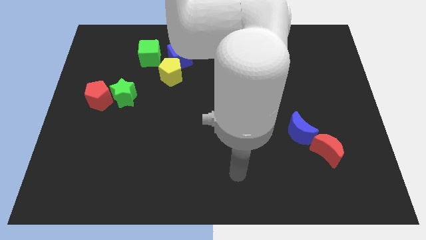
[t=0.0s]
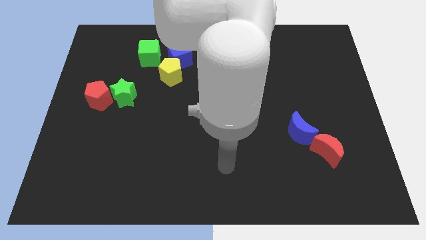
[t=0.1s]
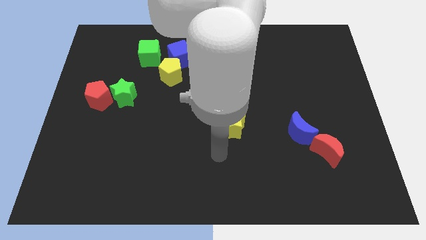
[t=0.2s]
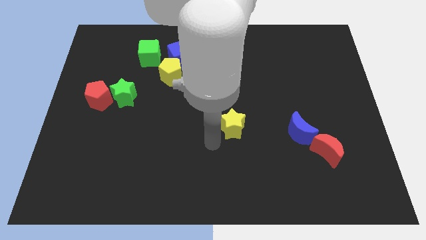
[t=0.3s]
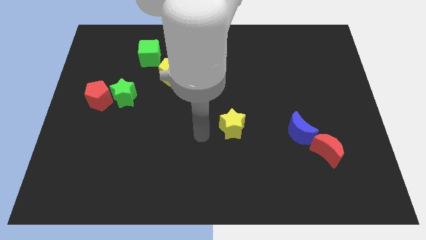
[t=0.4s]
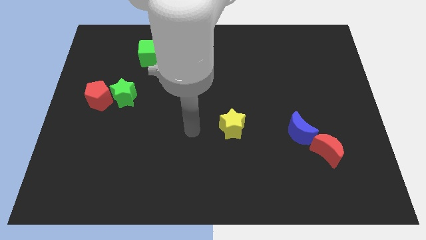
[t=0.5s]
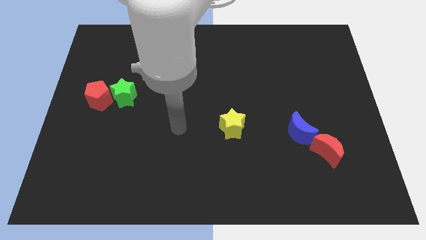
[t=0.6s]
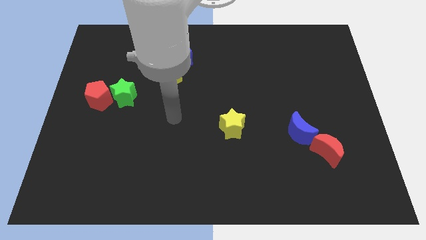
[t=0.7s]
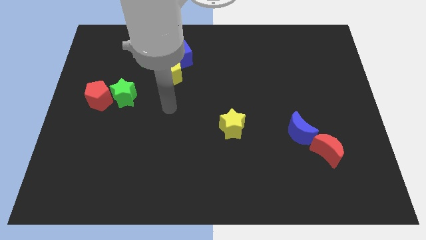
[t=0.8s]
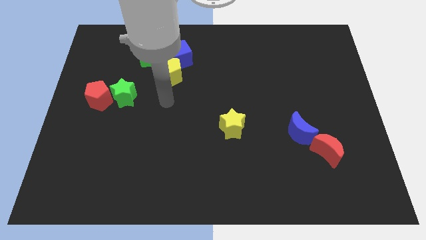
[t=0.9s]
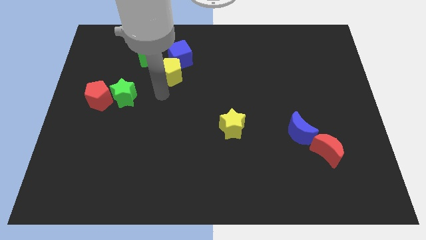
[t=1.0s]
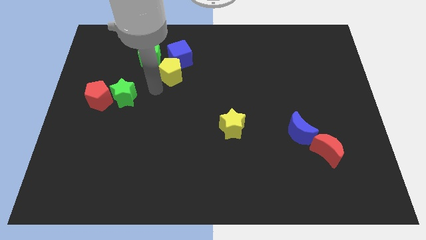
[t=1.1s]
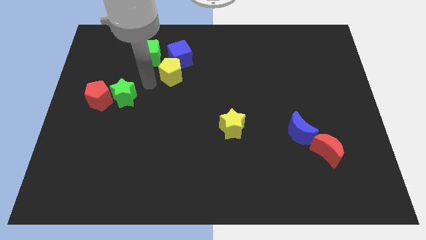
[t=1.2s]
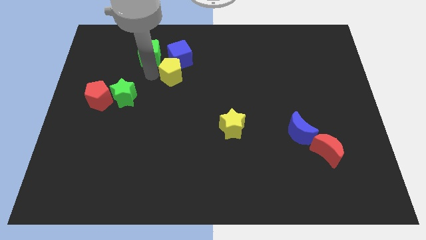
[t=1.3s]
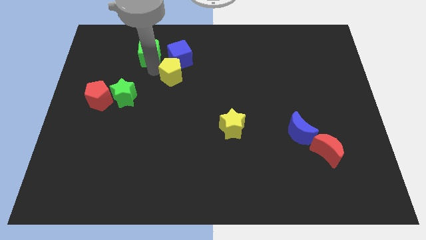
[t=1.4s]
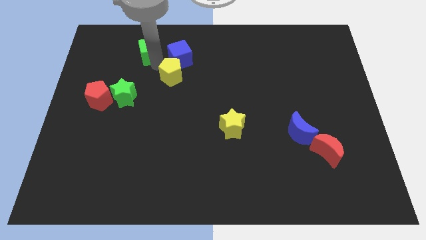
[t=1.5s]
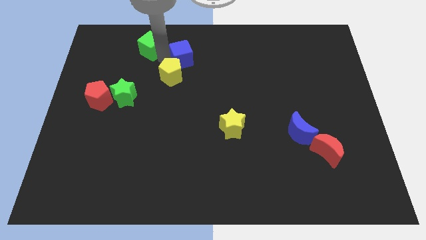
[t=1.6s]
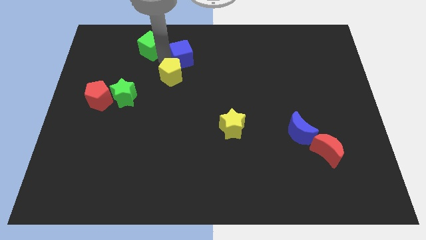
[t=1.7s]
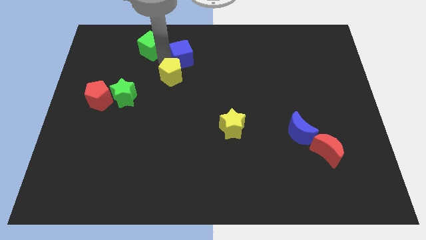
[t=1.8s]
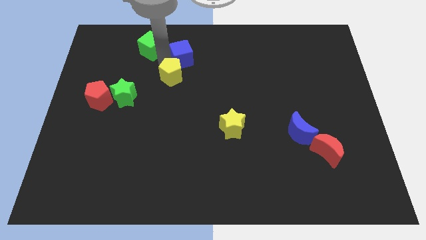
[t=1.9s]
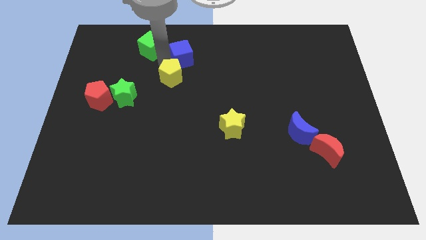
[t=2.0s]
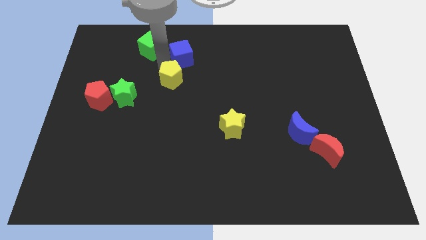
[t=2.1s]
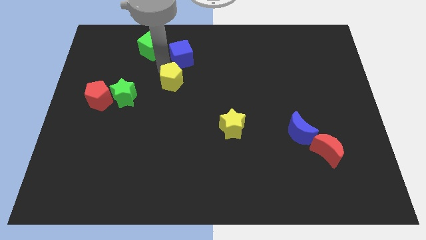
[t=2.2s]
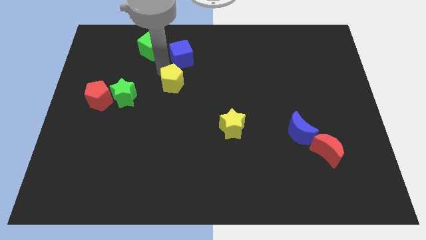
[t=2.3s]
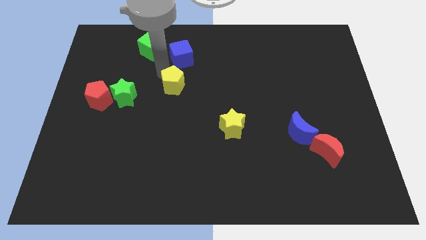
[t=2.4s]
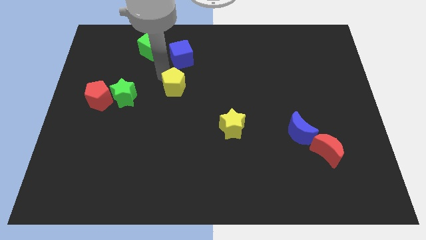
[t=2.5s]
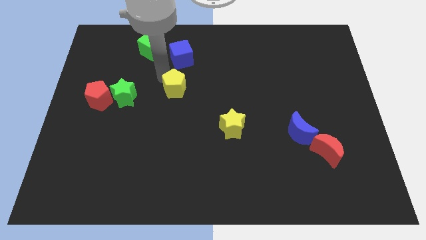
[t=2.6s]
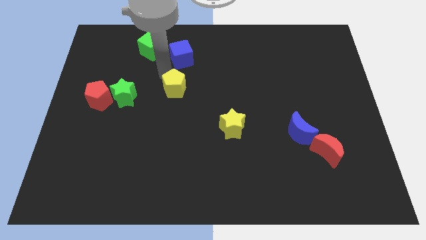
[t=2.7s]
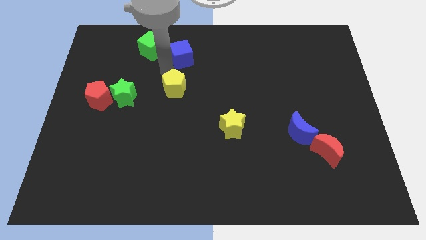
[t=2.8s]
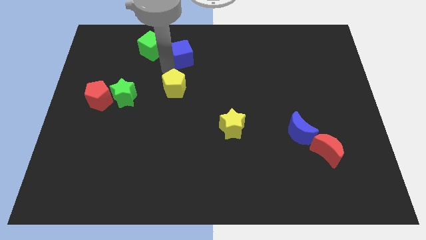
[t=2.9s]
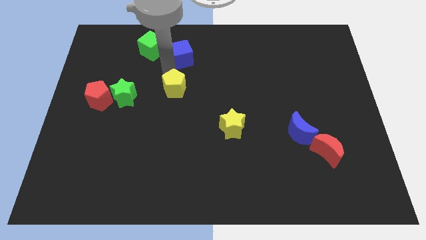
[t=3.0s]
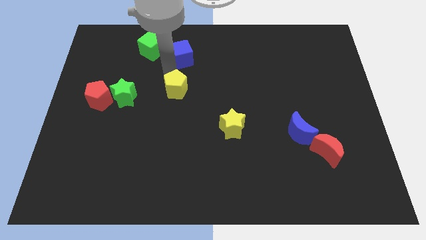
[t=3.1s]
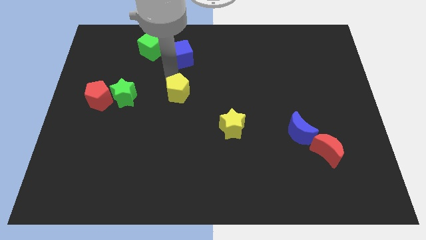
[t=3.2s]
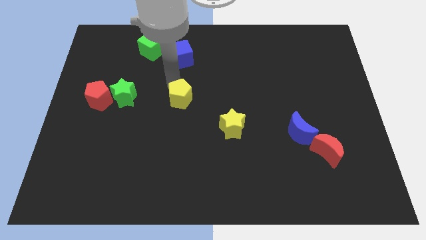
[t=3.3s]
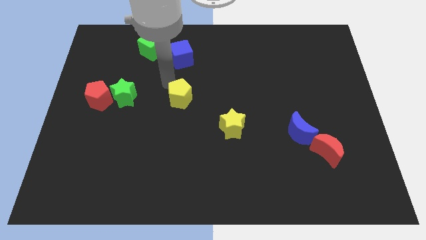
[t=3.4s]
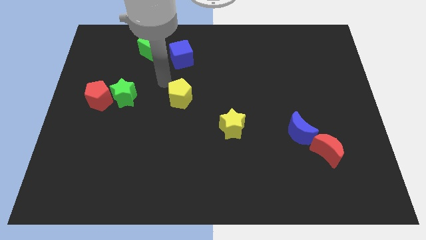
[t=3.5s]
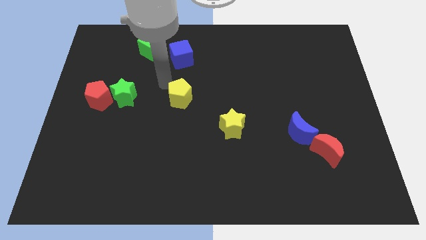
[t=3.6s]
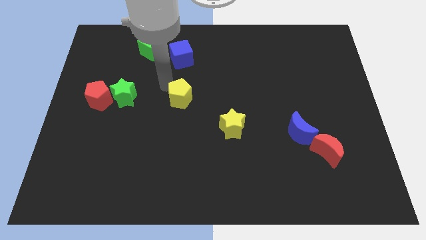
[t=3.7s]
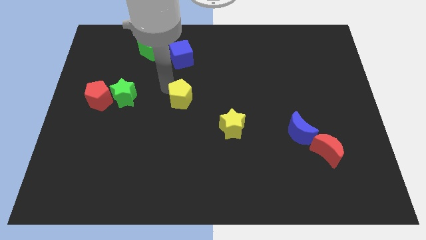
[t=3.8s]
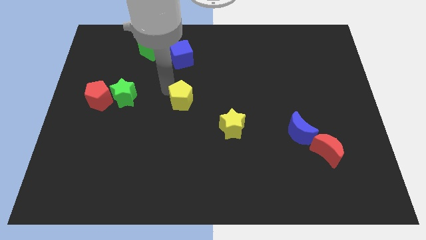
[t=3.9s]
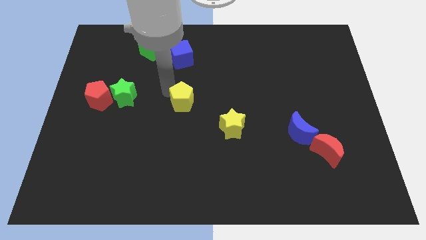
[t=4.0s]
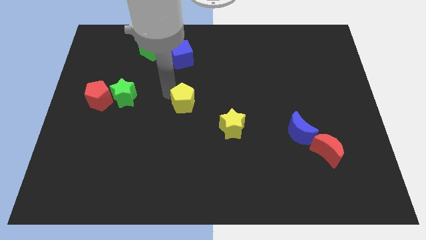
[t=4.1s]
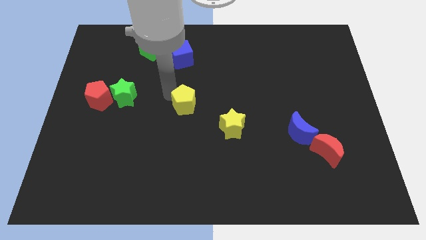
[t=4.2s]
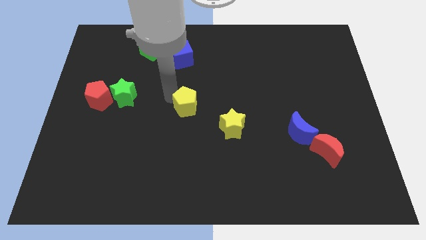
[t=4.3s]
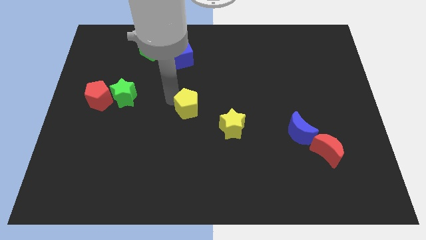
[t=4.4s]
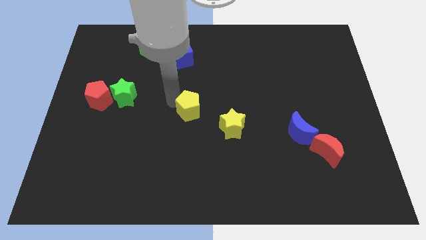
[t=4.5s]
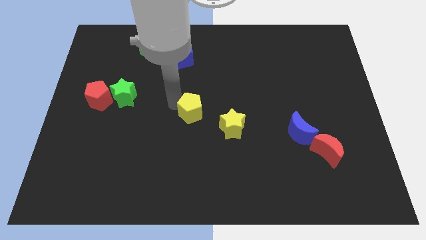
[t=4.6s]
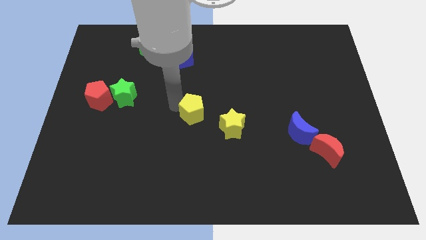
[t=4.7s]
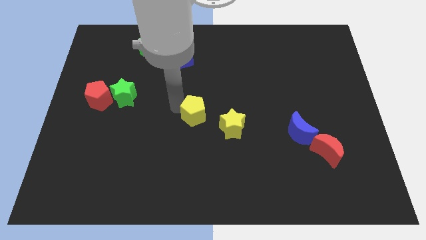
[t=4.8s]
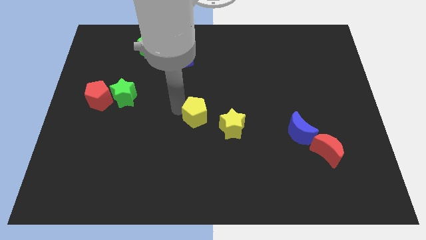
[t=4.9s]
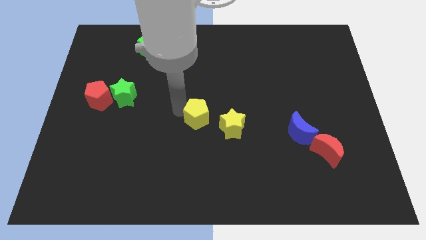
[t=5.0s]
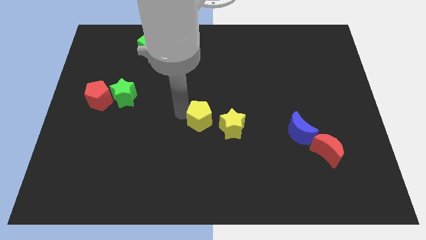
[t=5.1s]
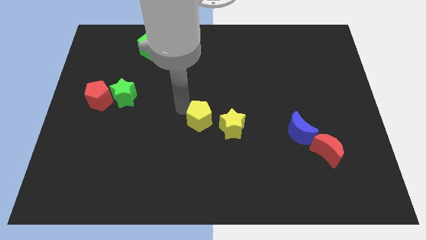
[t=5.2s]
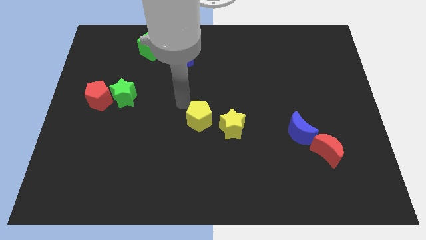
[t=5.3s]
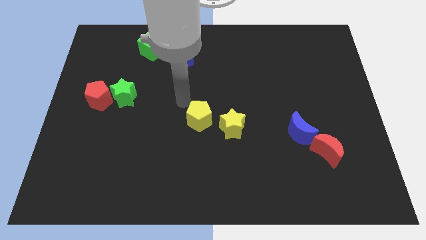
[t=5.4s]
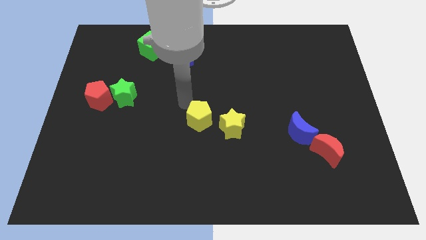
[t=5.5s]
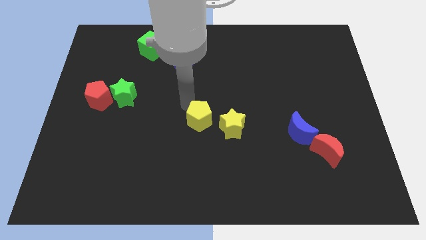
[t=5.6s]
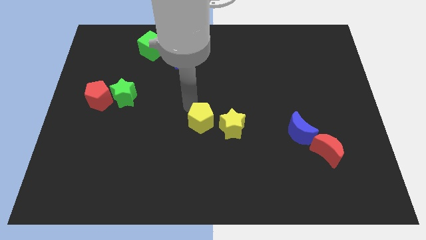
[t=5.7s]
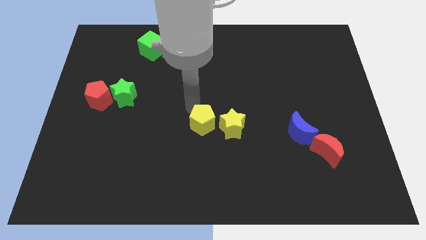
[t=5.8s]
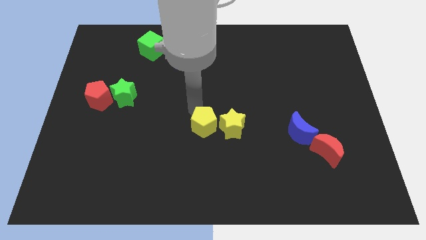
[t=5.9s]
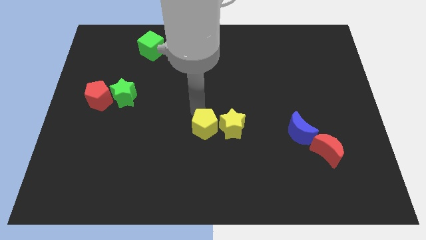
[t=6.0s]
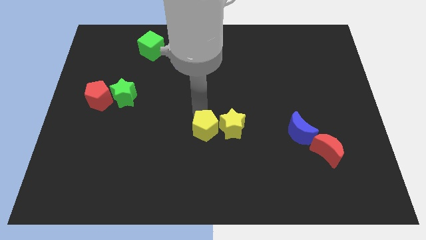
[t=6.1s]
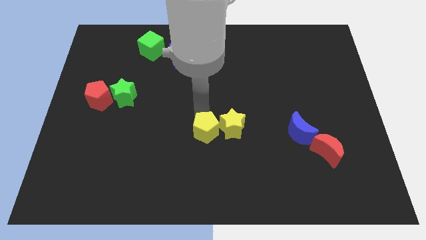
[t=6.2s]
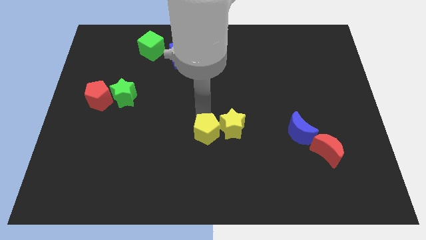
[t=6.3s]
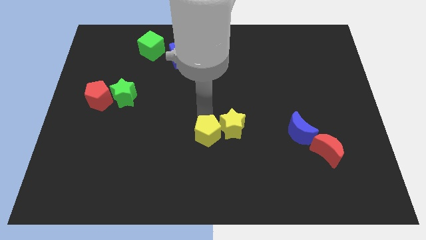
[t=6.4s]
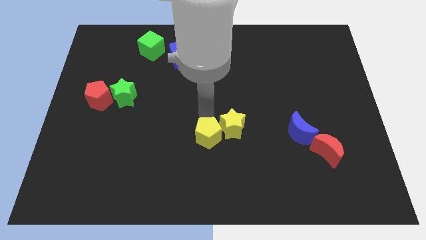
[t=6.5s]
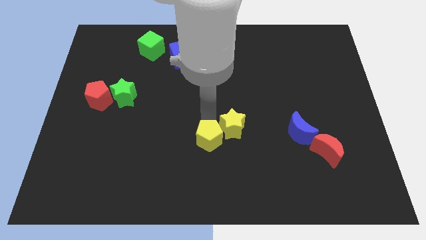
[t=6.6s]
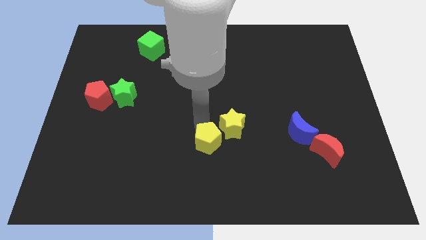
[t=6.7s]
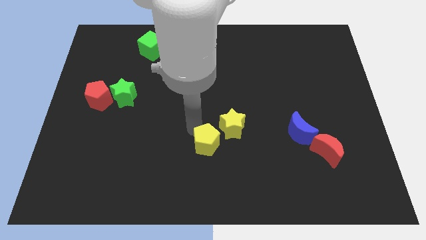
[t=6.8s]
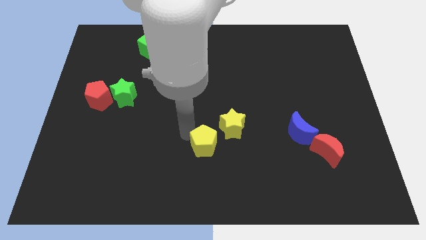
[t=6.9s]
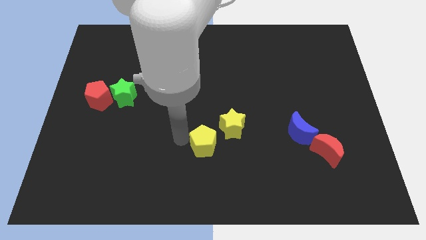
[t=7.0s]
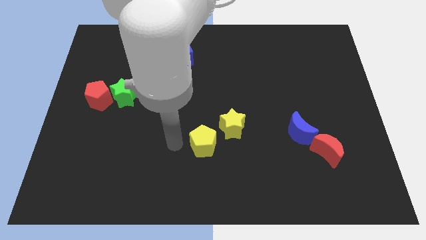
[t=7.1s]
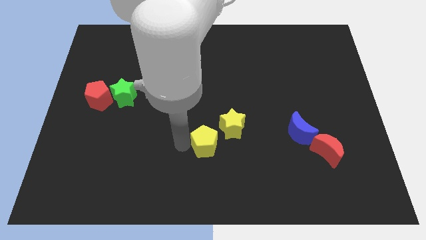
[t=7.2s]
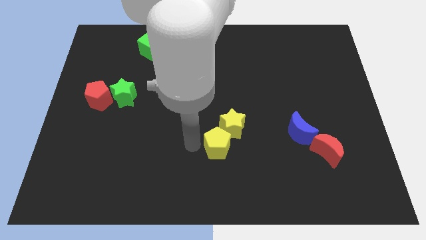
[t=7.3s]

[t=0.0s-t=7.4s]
slide the yellow pentagon down and then right
